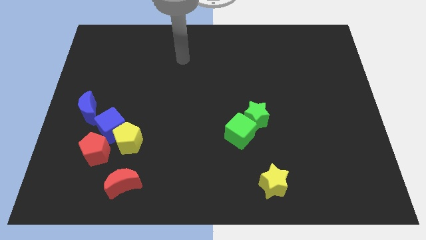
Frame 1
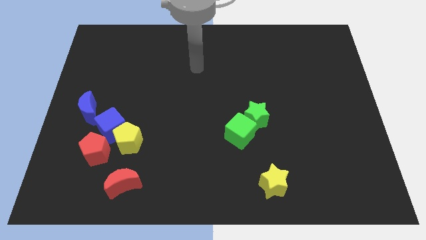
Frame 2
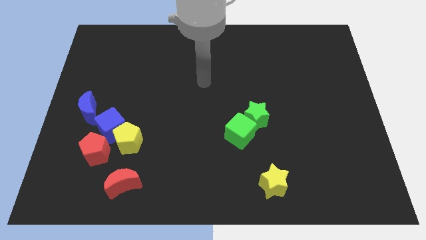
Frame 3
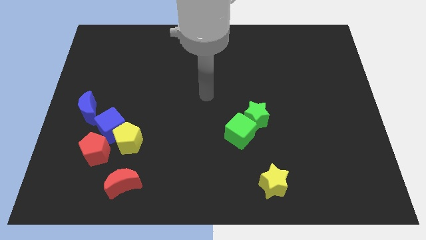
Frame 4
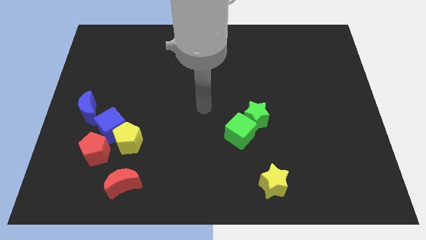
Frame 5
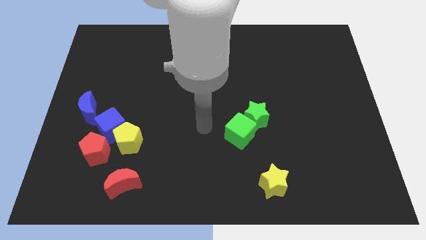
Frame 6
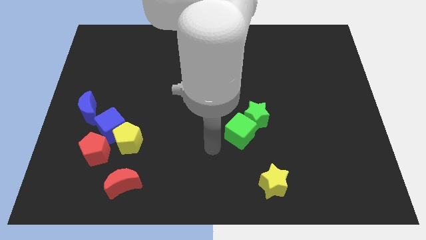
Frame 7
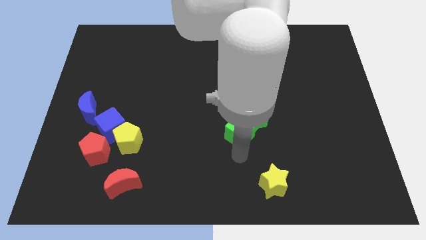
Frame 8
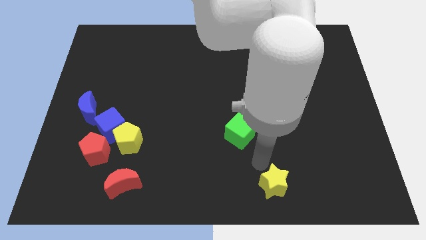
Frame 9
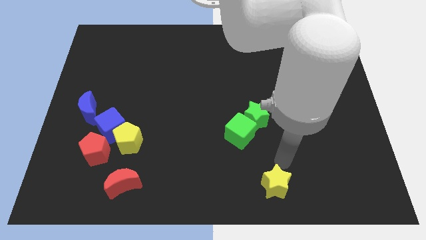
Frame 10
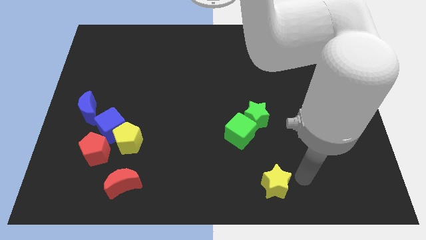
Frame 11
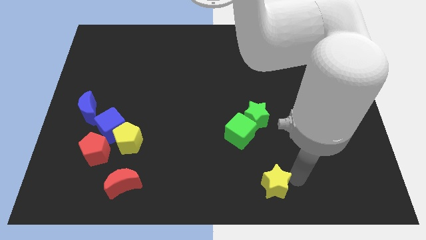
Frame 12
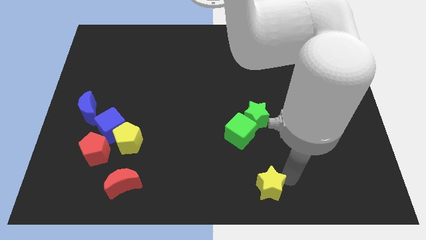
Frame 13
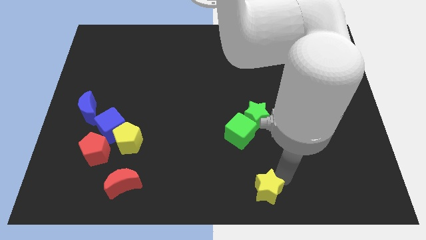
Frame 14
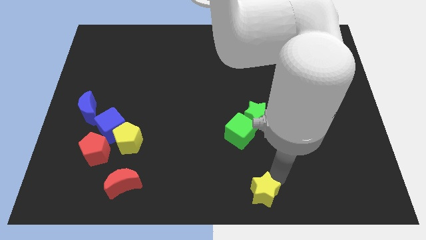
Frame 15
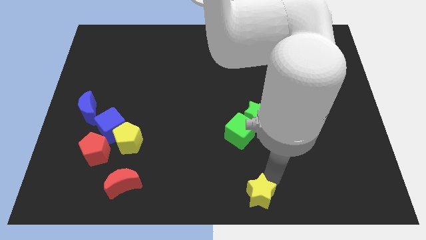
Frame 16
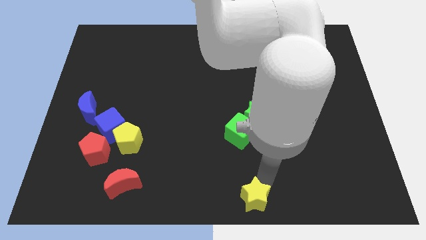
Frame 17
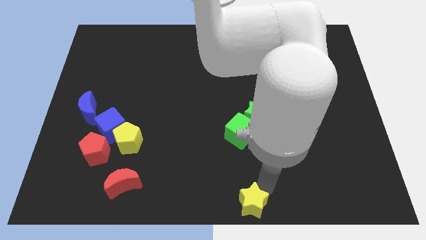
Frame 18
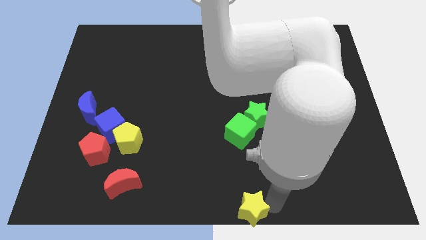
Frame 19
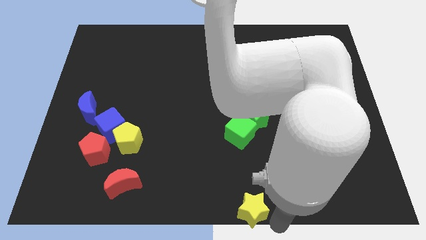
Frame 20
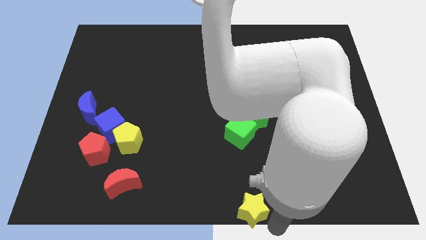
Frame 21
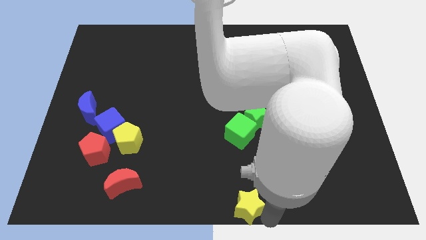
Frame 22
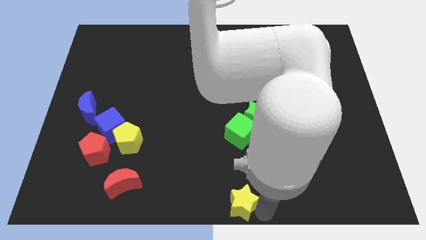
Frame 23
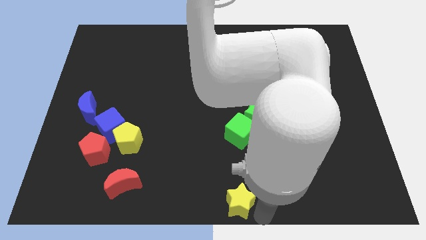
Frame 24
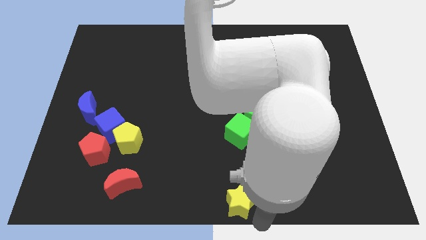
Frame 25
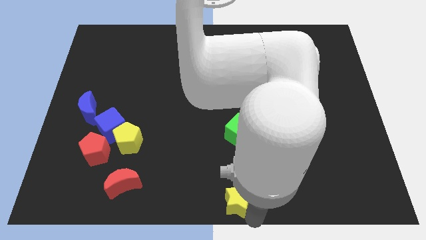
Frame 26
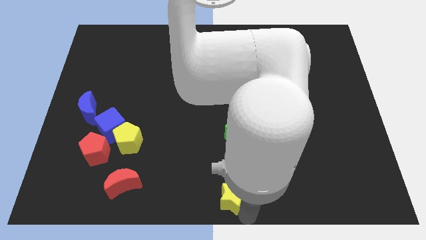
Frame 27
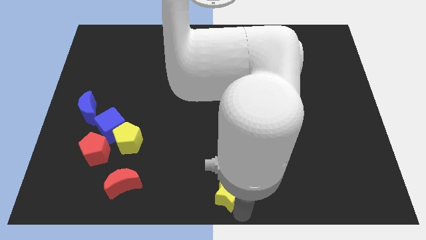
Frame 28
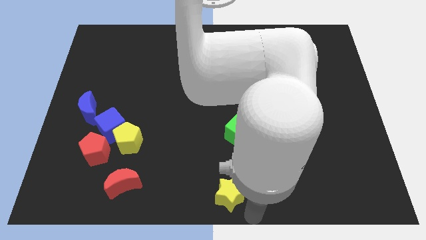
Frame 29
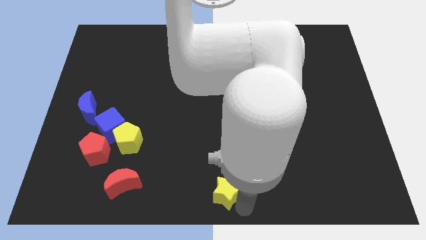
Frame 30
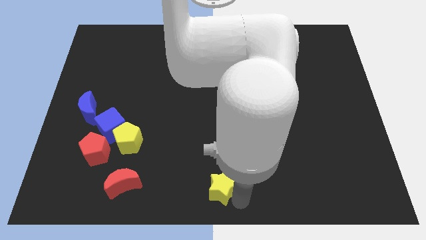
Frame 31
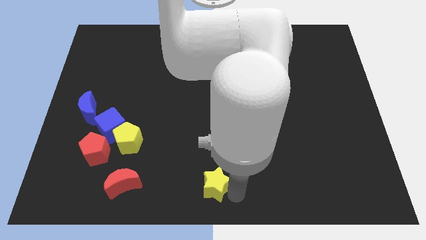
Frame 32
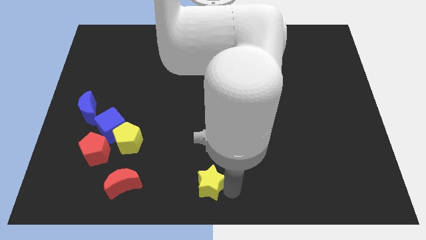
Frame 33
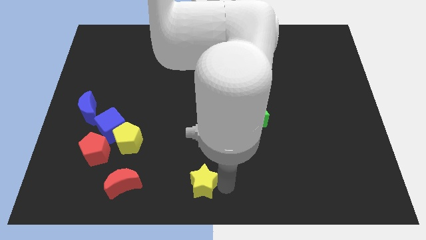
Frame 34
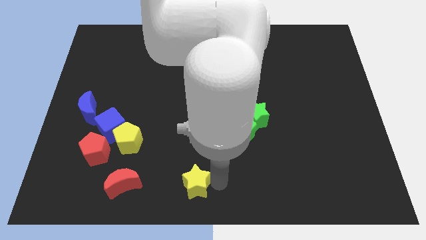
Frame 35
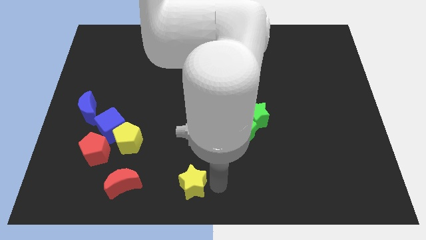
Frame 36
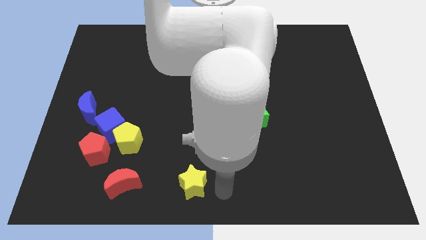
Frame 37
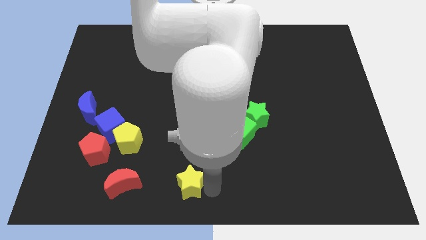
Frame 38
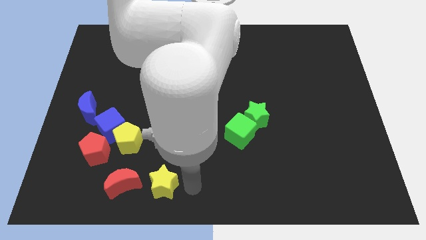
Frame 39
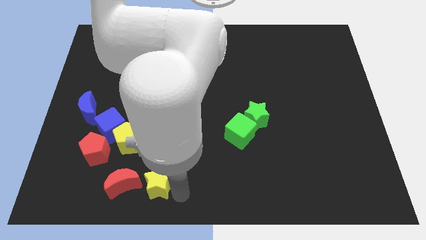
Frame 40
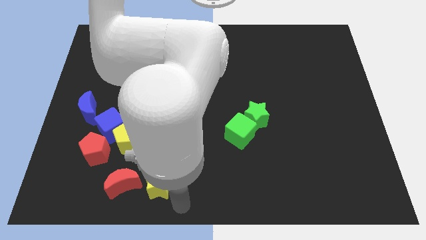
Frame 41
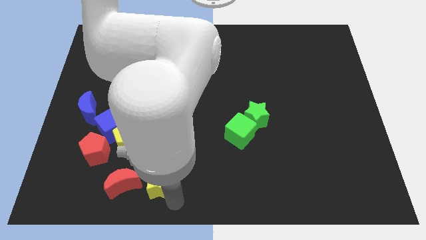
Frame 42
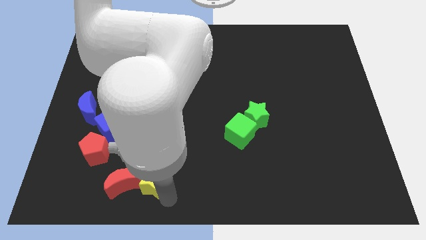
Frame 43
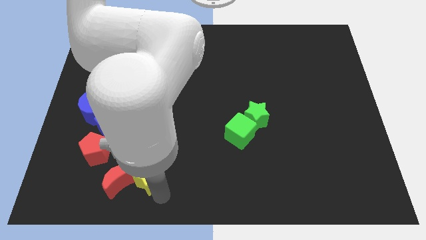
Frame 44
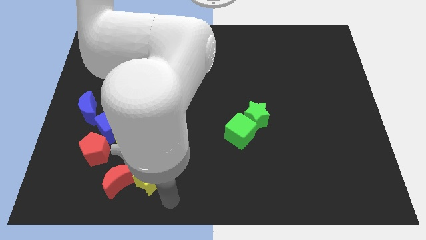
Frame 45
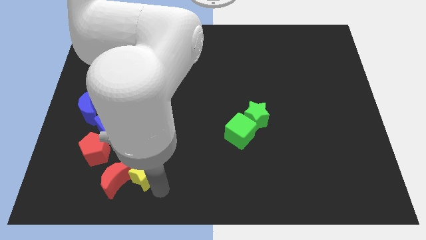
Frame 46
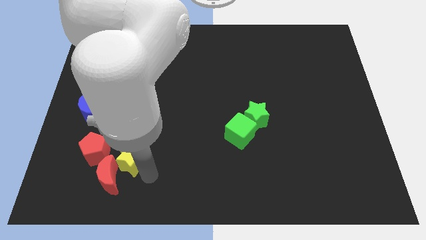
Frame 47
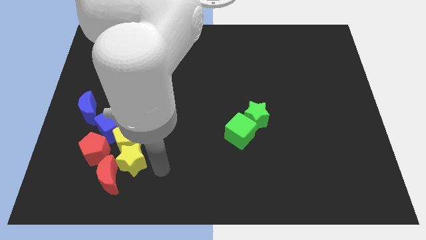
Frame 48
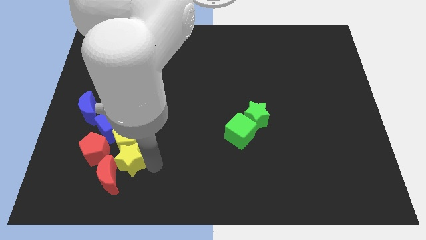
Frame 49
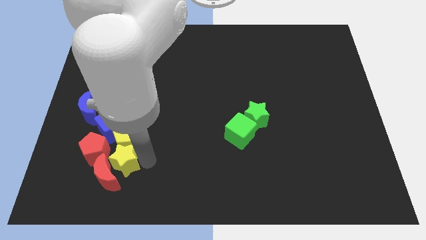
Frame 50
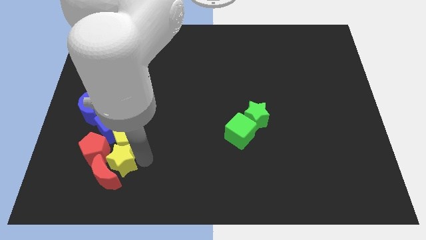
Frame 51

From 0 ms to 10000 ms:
slide the yellow star to the red pentagon

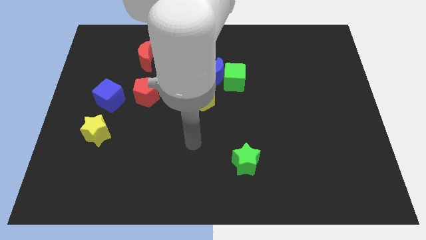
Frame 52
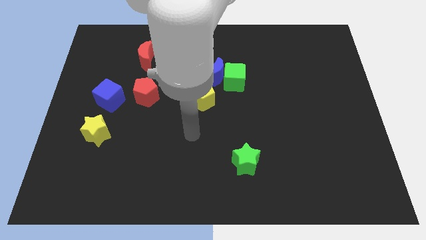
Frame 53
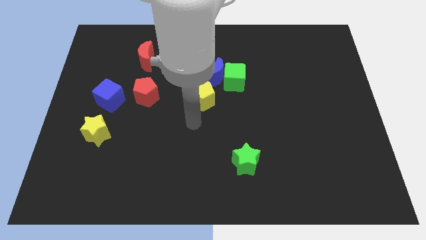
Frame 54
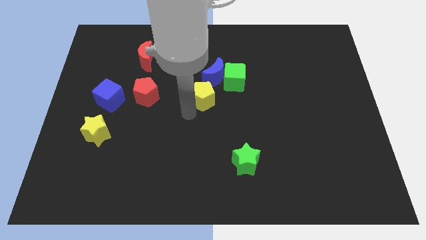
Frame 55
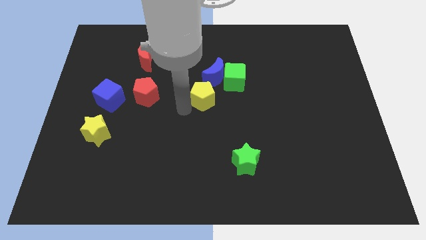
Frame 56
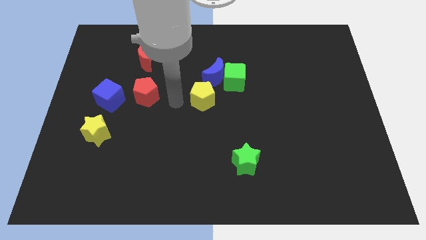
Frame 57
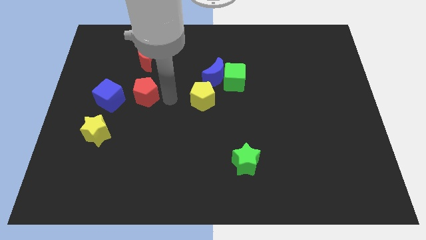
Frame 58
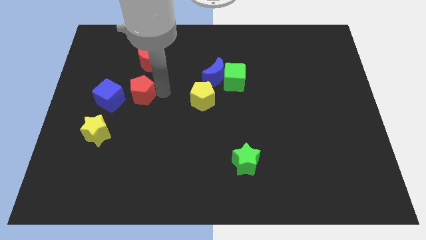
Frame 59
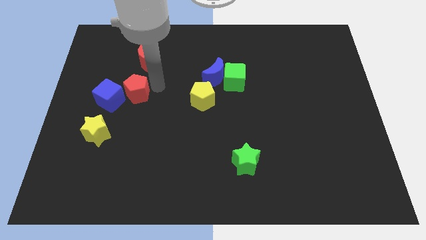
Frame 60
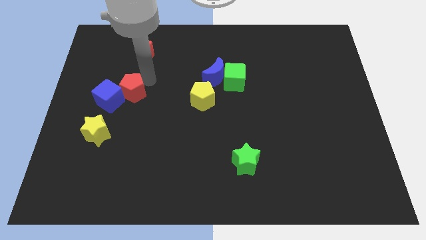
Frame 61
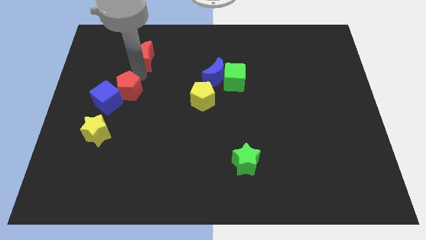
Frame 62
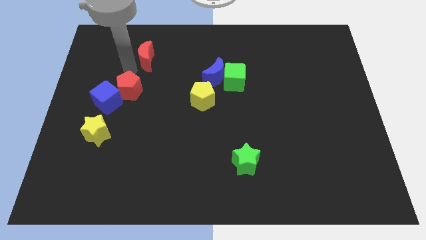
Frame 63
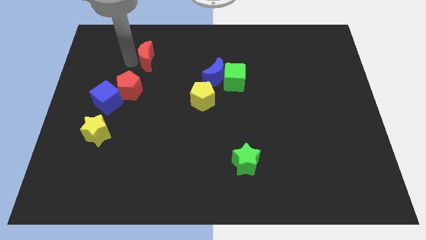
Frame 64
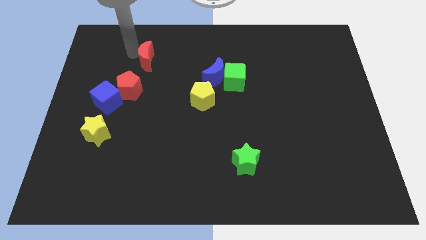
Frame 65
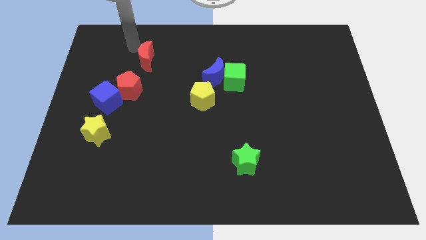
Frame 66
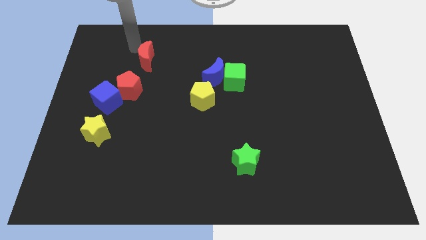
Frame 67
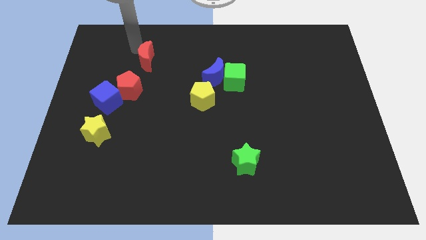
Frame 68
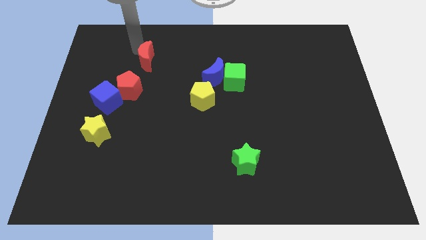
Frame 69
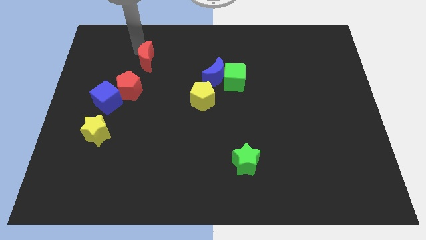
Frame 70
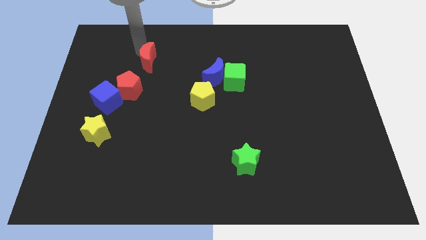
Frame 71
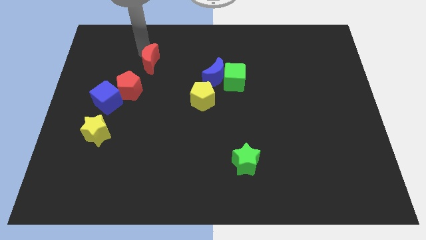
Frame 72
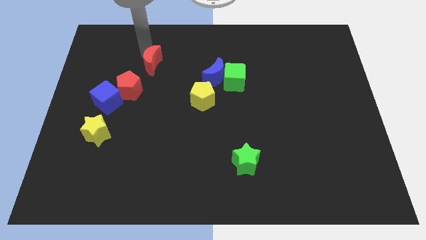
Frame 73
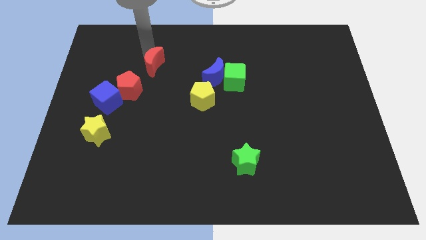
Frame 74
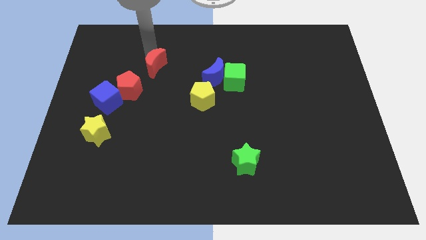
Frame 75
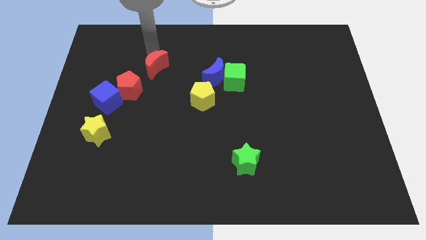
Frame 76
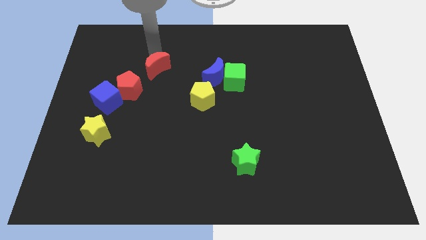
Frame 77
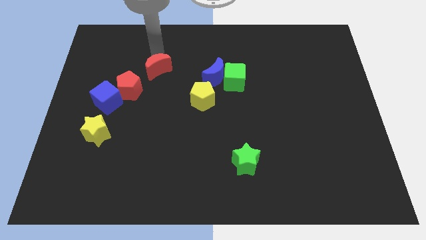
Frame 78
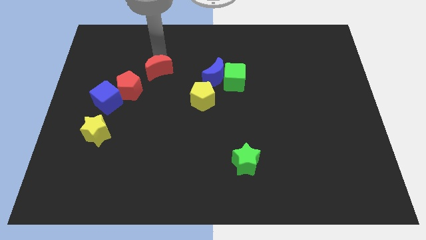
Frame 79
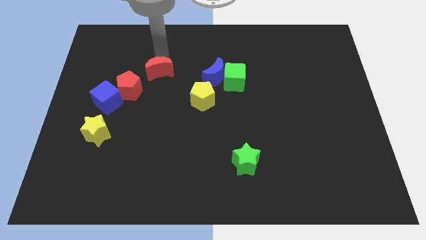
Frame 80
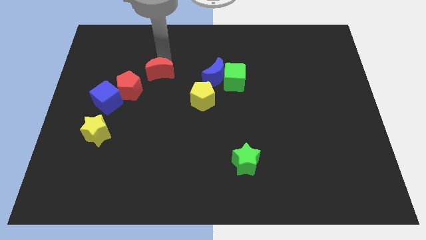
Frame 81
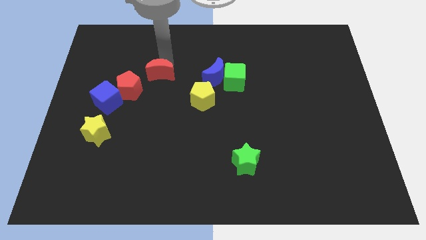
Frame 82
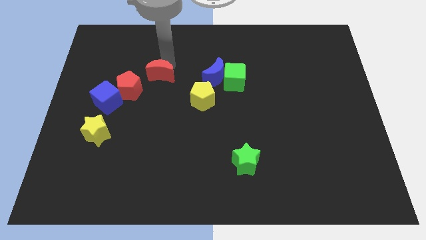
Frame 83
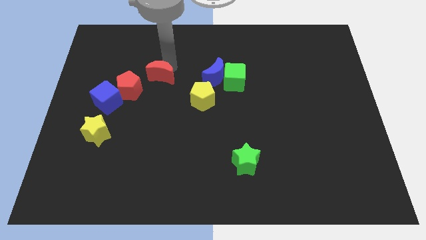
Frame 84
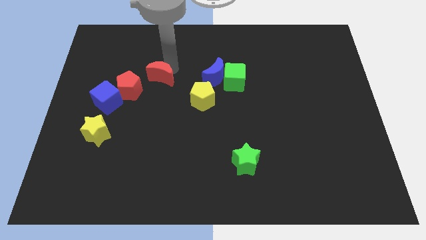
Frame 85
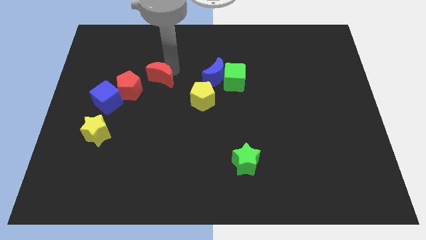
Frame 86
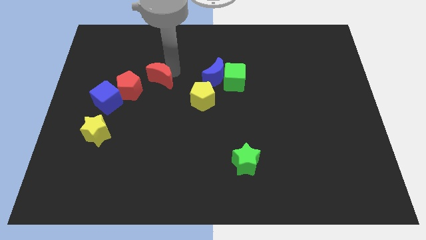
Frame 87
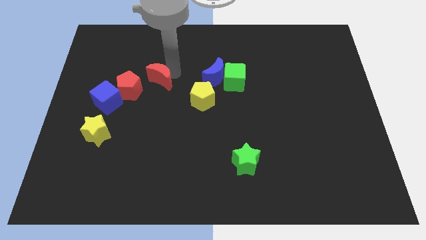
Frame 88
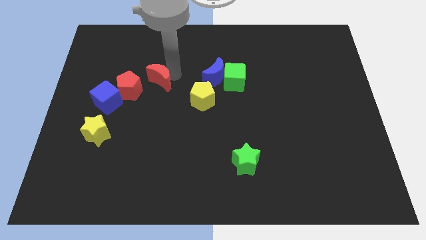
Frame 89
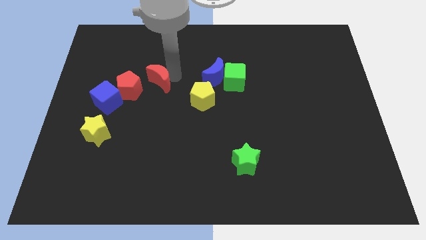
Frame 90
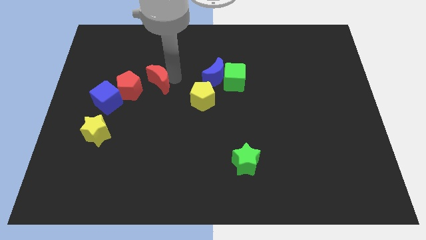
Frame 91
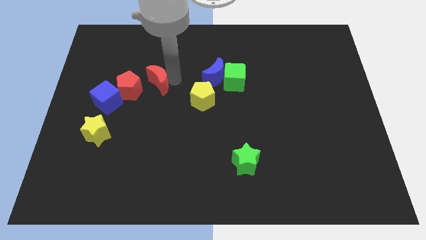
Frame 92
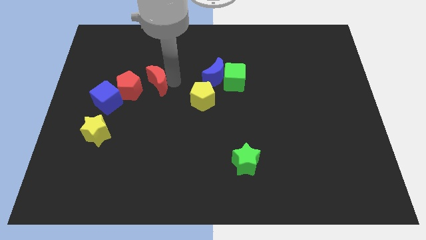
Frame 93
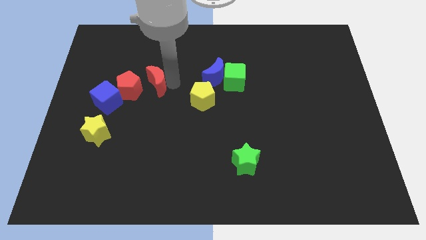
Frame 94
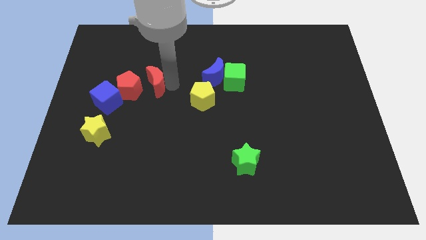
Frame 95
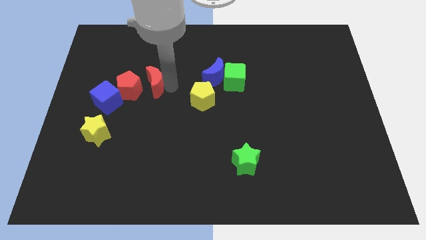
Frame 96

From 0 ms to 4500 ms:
push the red moon next to the red pentagon
